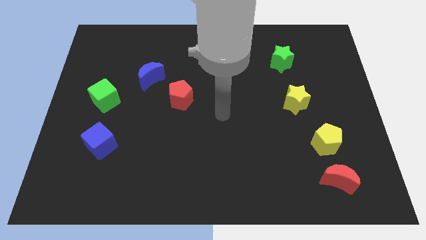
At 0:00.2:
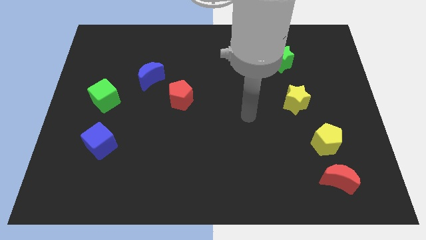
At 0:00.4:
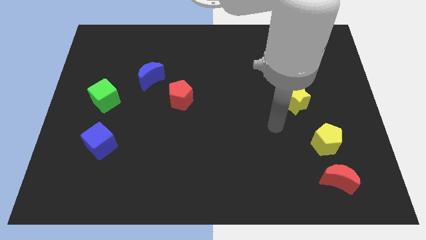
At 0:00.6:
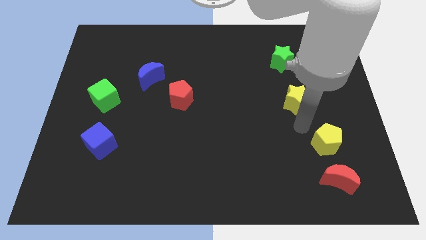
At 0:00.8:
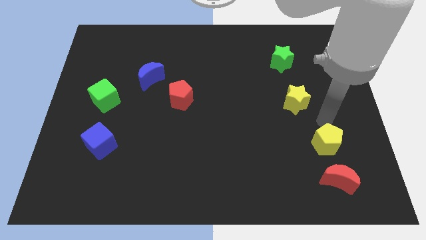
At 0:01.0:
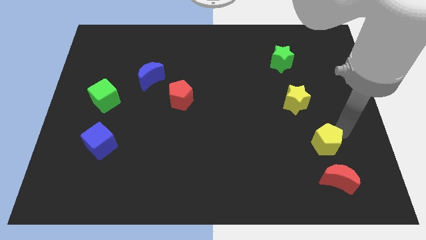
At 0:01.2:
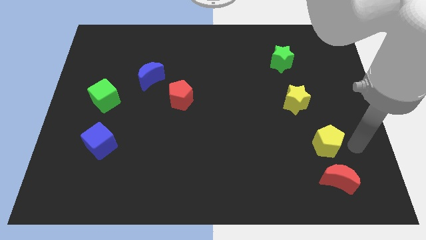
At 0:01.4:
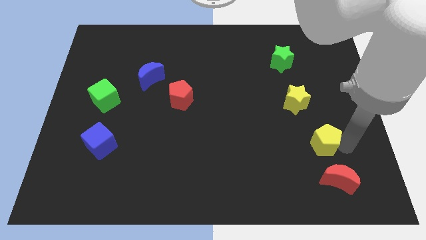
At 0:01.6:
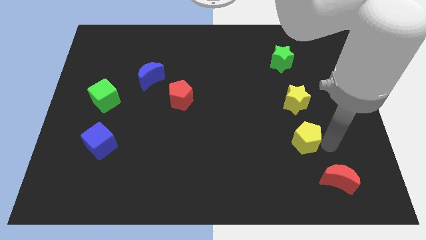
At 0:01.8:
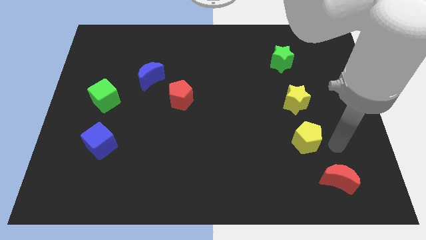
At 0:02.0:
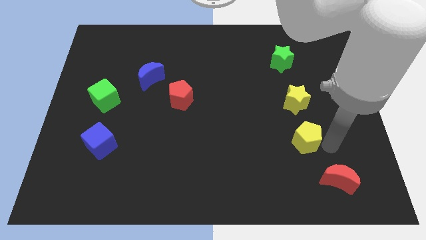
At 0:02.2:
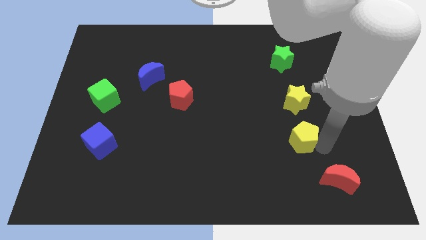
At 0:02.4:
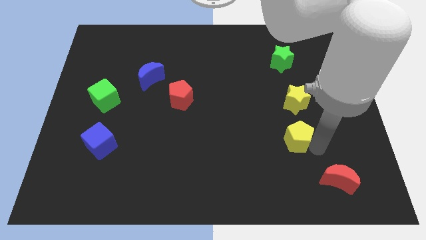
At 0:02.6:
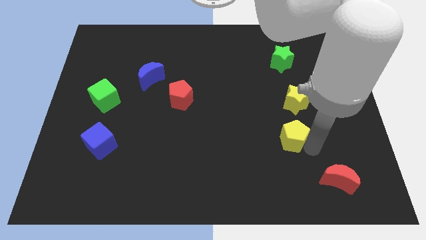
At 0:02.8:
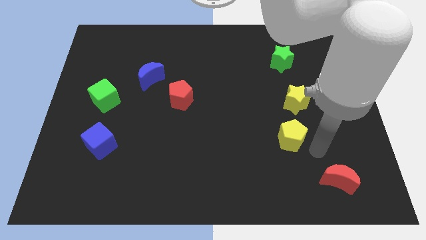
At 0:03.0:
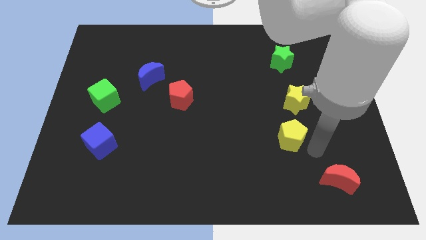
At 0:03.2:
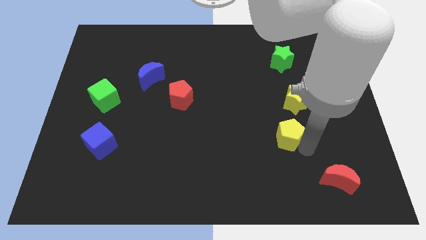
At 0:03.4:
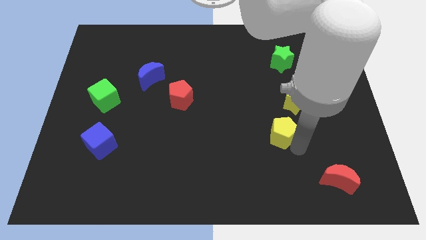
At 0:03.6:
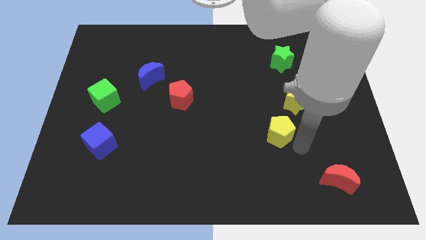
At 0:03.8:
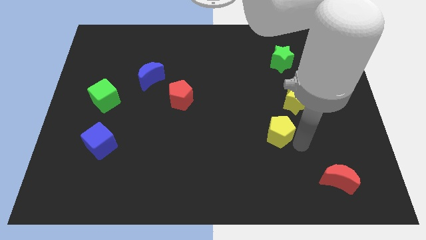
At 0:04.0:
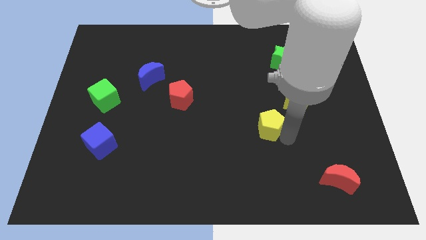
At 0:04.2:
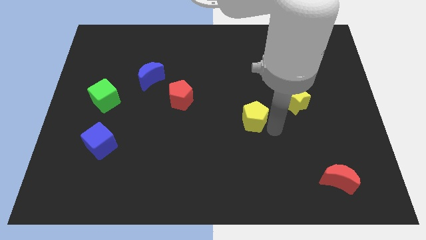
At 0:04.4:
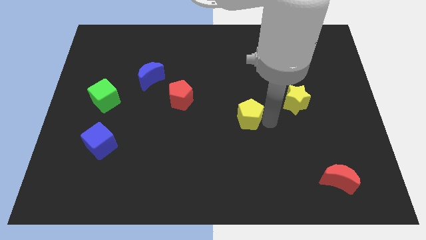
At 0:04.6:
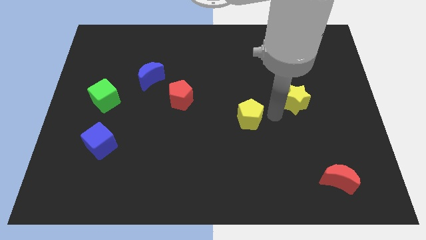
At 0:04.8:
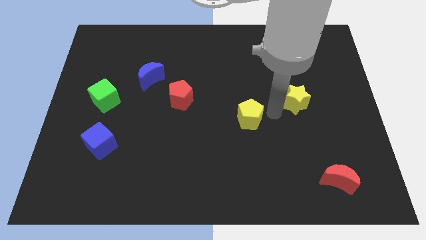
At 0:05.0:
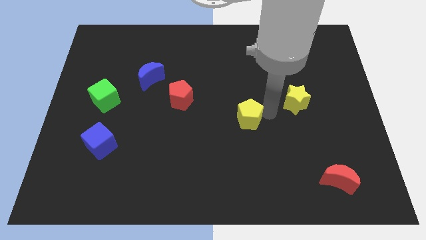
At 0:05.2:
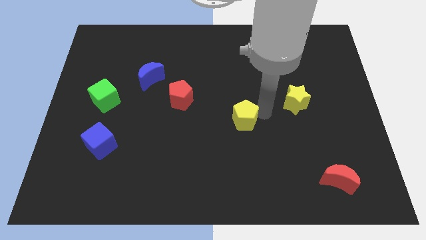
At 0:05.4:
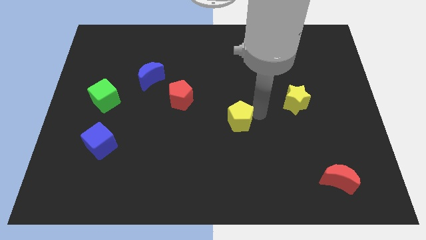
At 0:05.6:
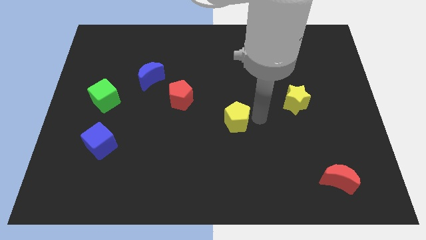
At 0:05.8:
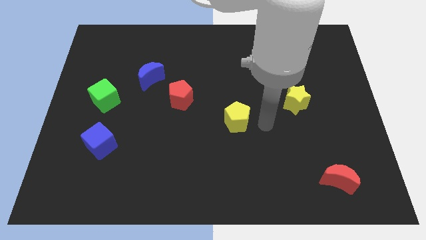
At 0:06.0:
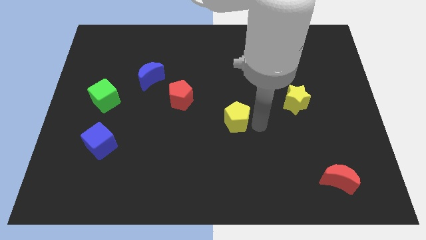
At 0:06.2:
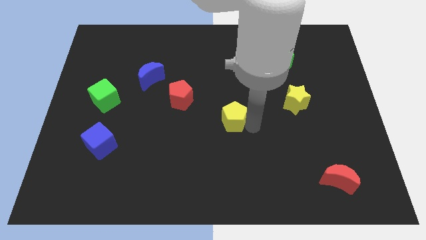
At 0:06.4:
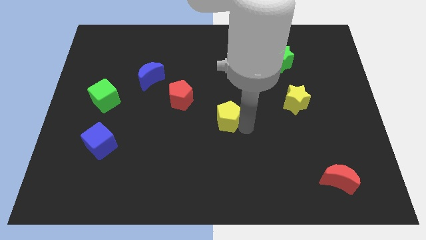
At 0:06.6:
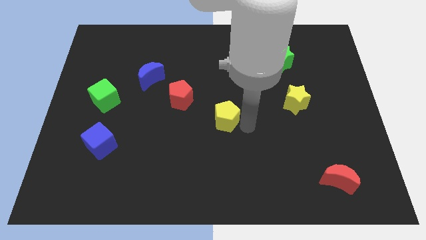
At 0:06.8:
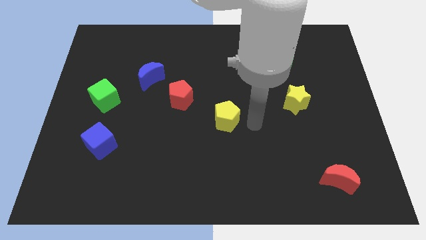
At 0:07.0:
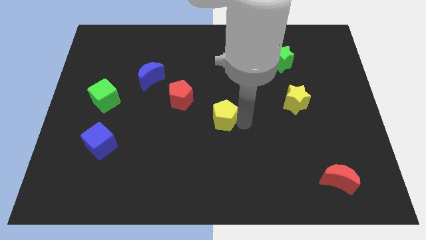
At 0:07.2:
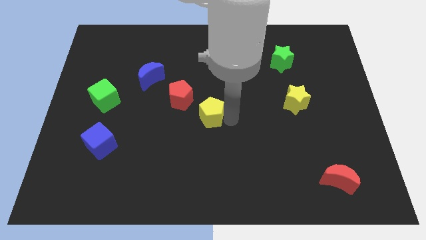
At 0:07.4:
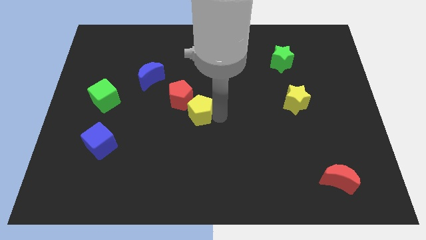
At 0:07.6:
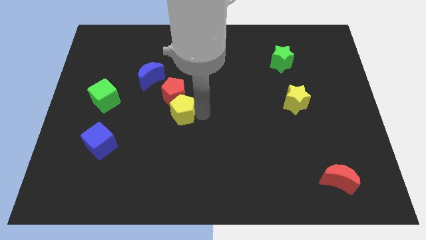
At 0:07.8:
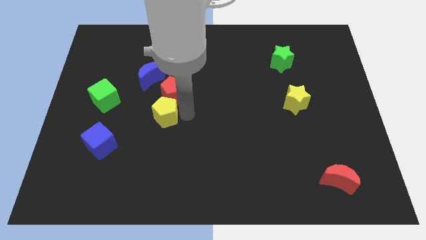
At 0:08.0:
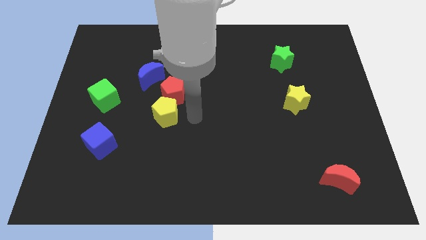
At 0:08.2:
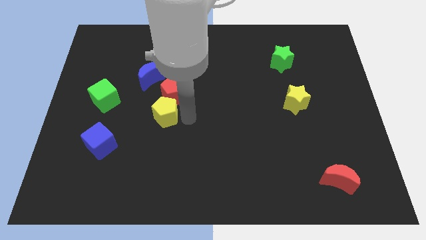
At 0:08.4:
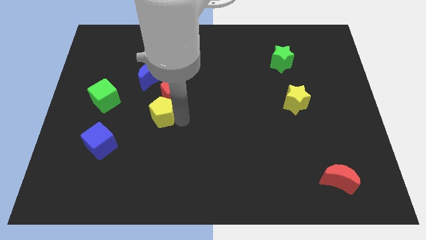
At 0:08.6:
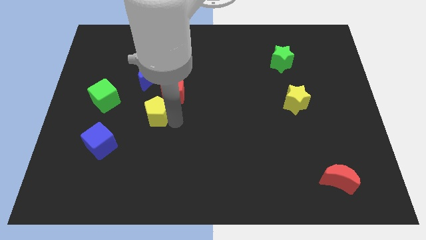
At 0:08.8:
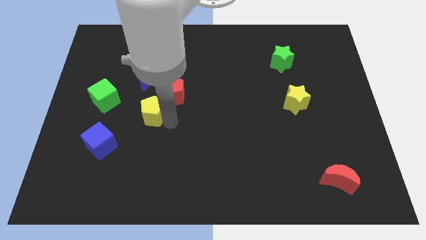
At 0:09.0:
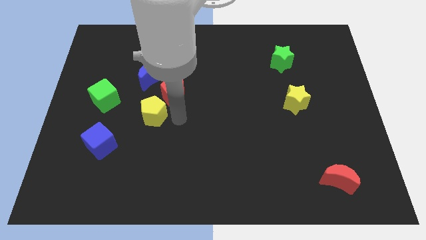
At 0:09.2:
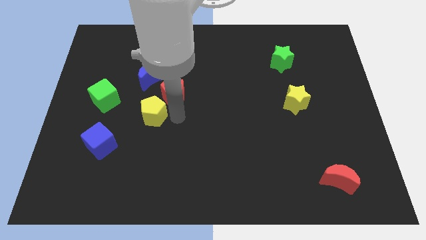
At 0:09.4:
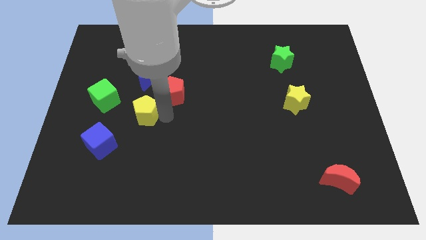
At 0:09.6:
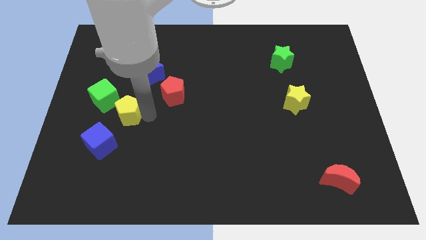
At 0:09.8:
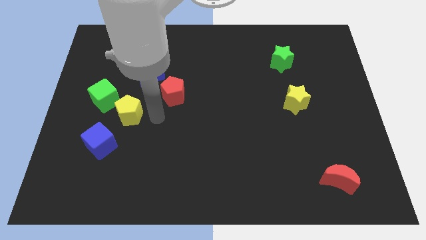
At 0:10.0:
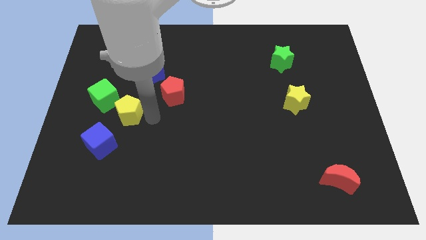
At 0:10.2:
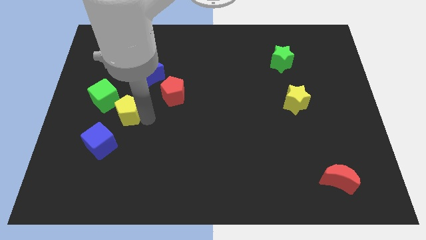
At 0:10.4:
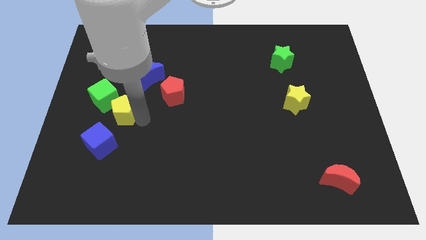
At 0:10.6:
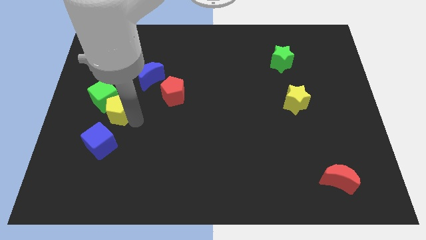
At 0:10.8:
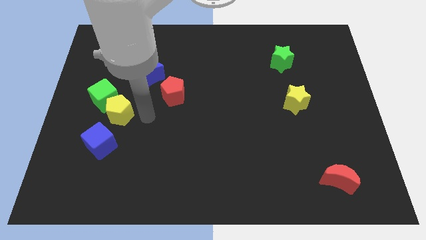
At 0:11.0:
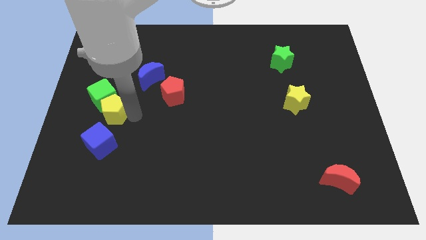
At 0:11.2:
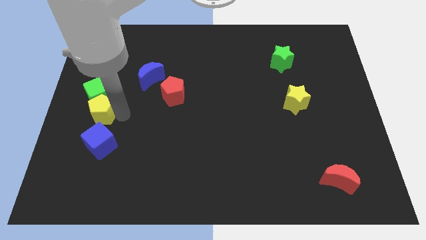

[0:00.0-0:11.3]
move the yellow pentagon to the center left
